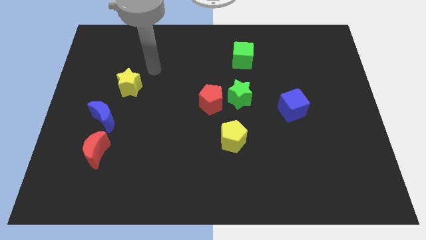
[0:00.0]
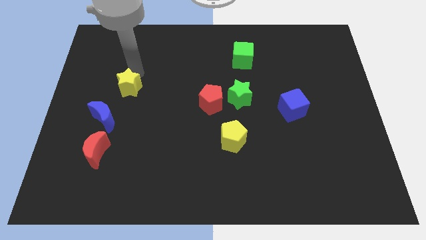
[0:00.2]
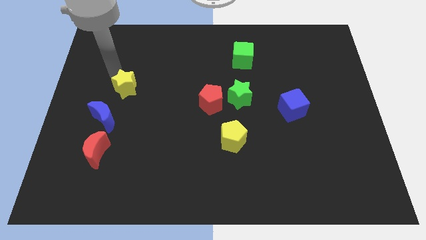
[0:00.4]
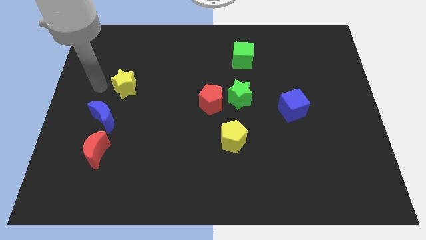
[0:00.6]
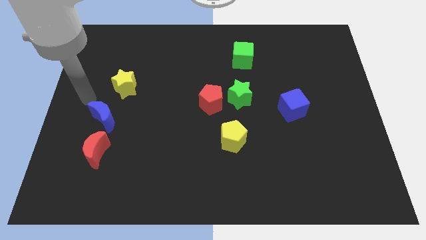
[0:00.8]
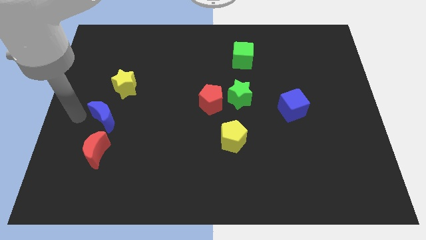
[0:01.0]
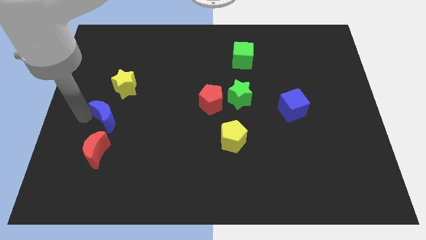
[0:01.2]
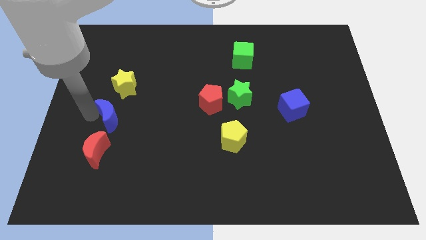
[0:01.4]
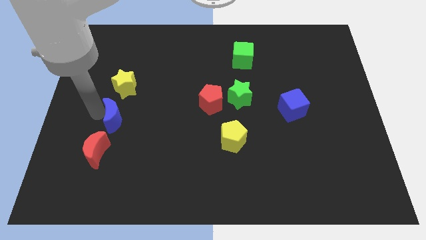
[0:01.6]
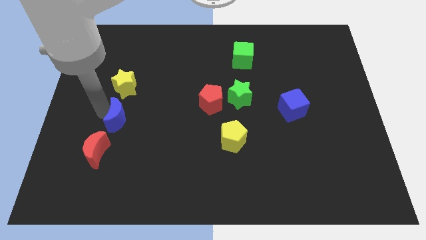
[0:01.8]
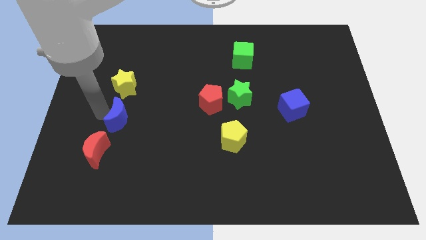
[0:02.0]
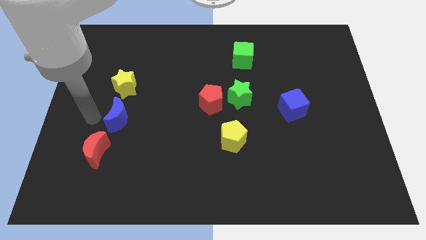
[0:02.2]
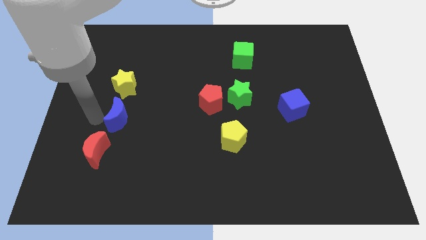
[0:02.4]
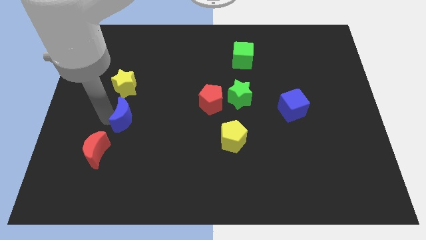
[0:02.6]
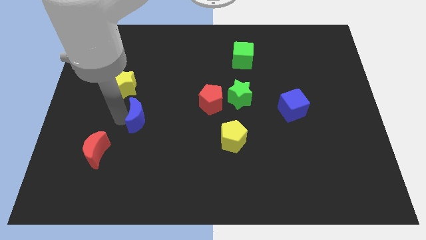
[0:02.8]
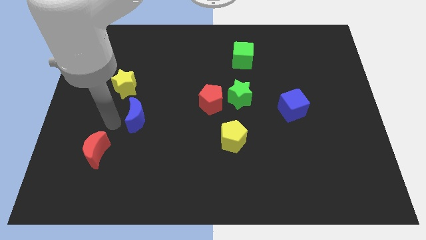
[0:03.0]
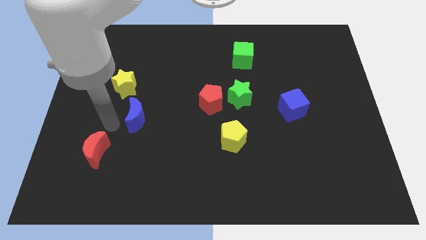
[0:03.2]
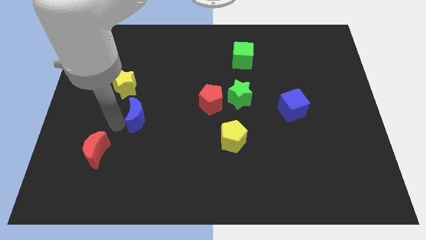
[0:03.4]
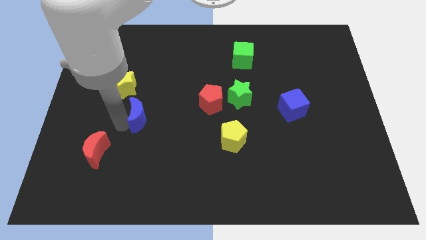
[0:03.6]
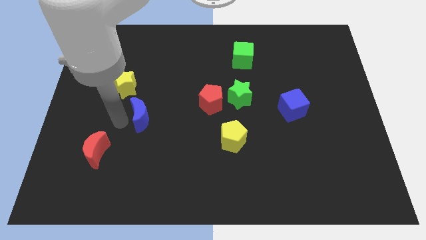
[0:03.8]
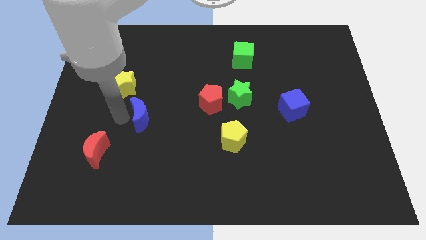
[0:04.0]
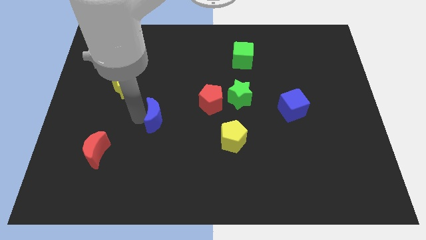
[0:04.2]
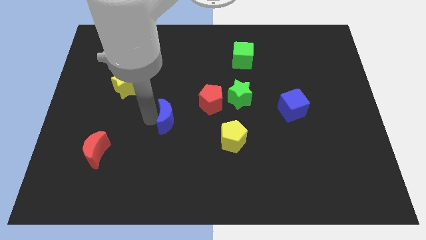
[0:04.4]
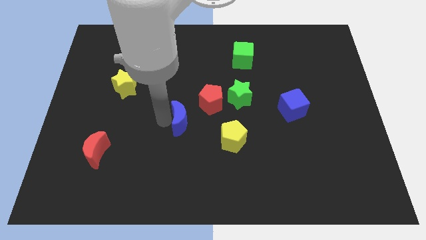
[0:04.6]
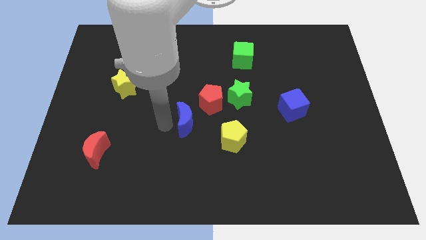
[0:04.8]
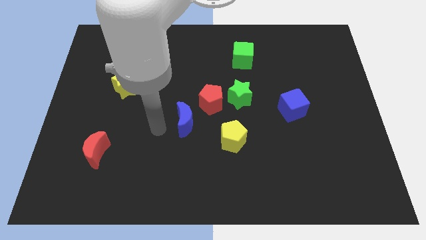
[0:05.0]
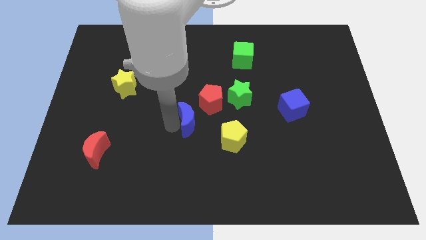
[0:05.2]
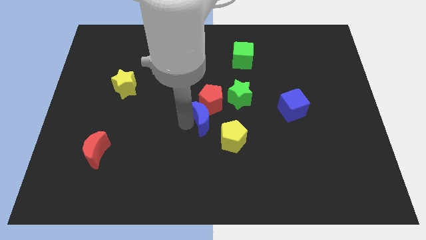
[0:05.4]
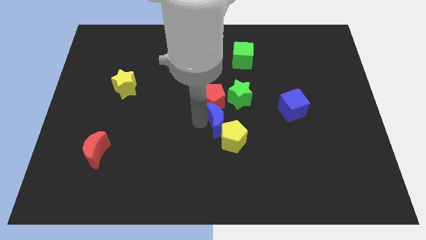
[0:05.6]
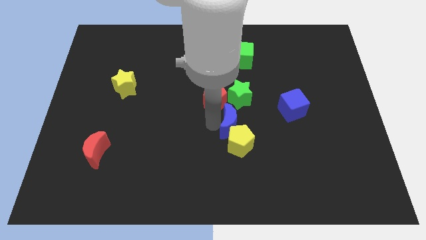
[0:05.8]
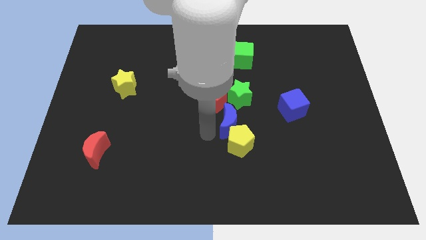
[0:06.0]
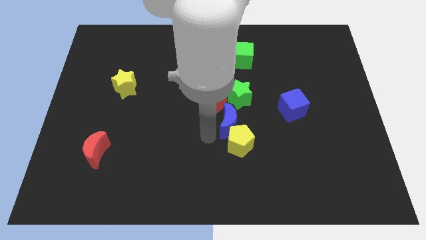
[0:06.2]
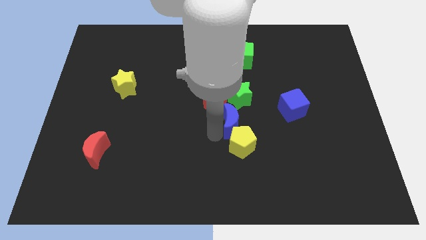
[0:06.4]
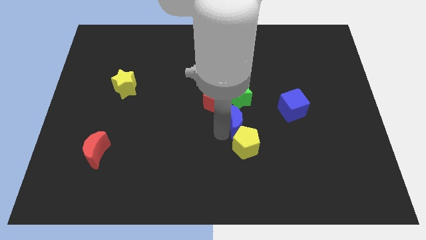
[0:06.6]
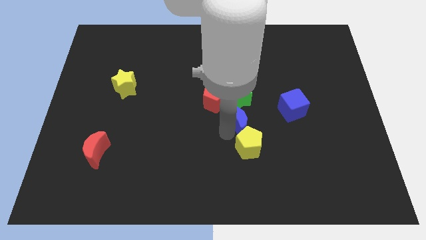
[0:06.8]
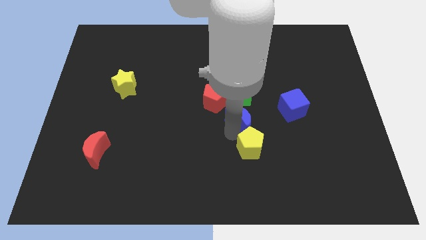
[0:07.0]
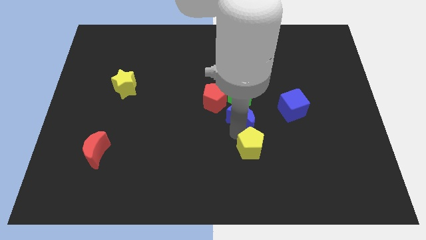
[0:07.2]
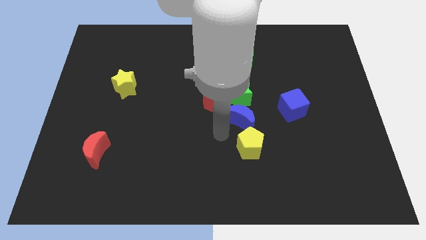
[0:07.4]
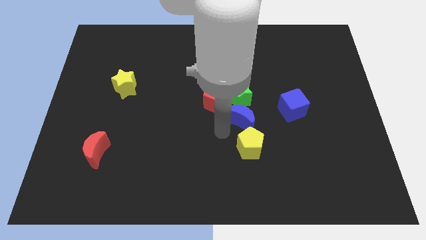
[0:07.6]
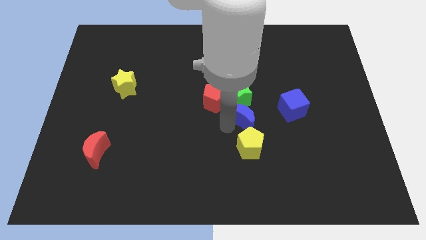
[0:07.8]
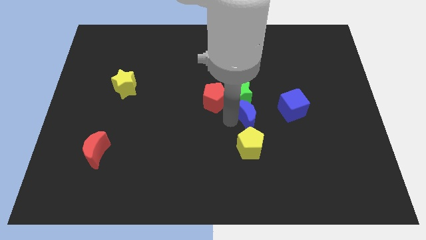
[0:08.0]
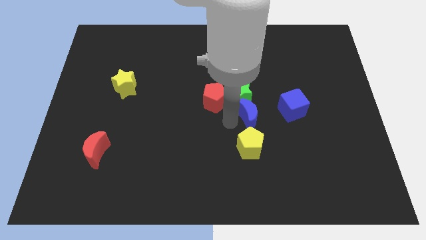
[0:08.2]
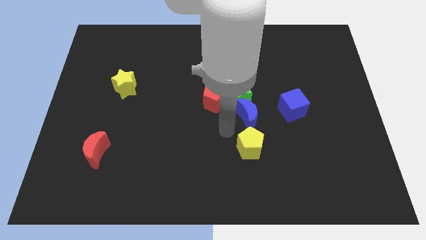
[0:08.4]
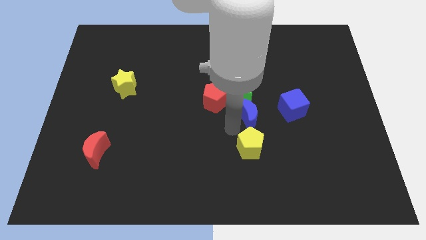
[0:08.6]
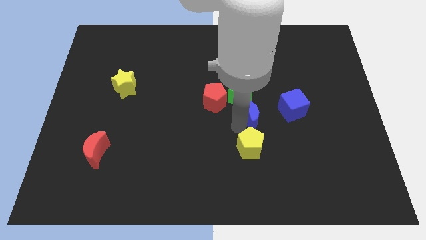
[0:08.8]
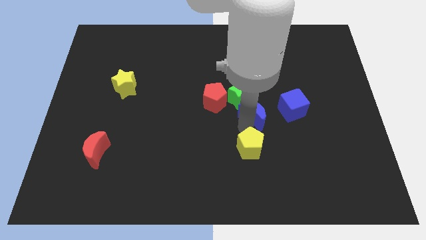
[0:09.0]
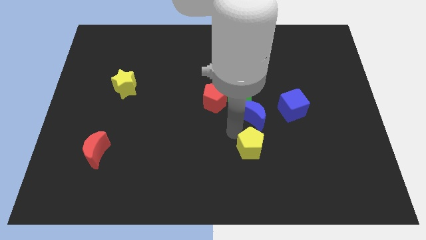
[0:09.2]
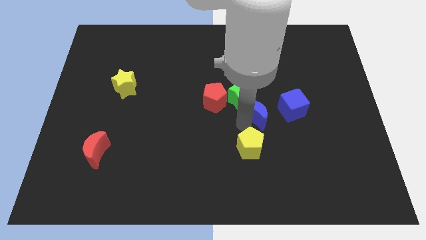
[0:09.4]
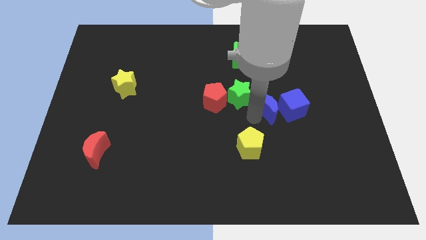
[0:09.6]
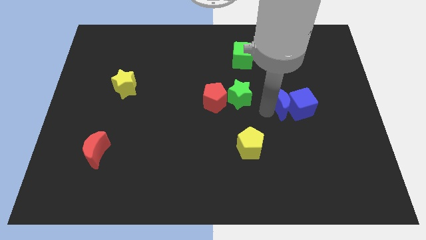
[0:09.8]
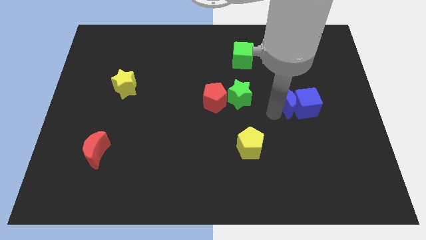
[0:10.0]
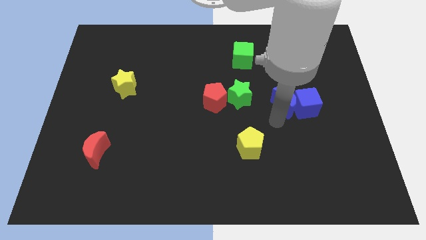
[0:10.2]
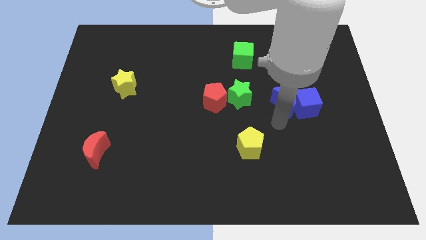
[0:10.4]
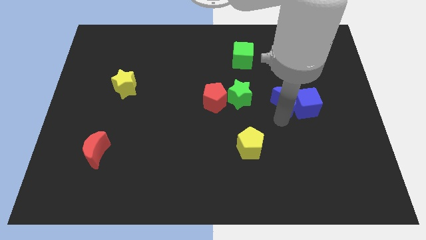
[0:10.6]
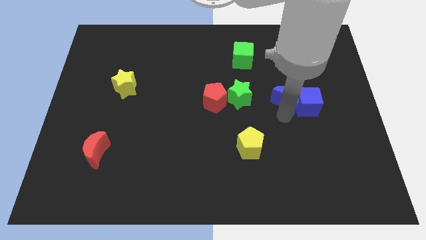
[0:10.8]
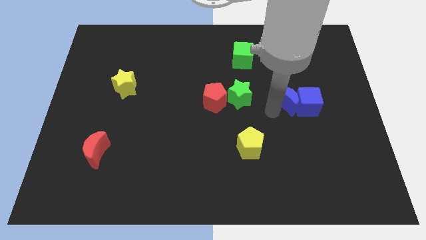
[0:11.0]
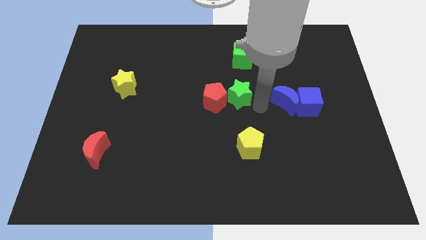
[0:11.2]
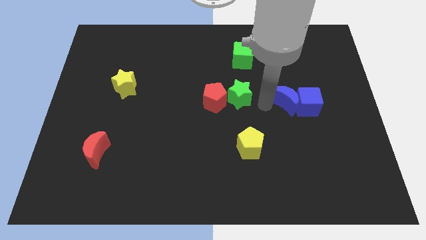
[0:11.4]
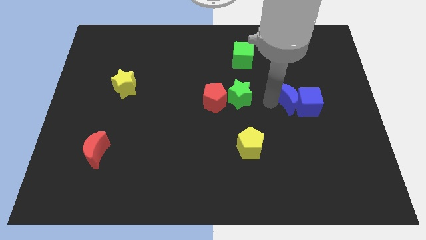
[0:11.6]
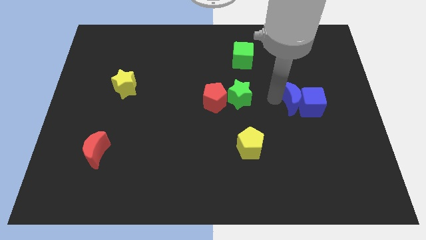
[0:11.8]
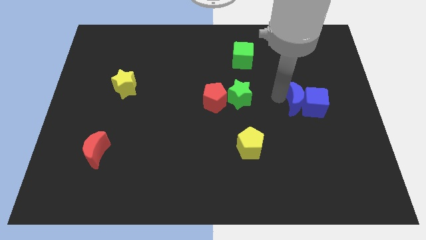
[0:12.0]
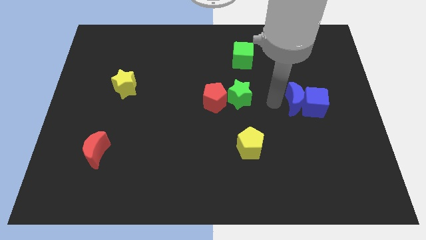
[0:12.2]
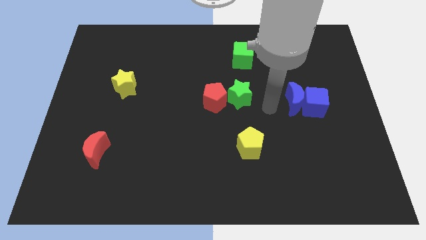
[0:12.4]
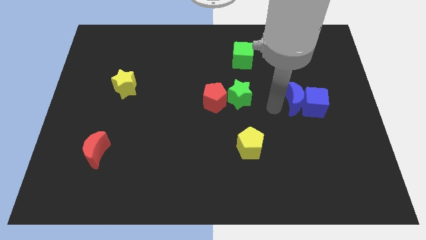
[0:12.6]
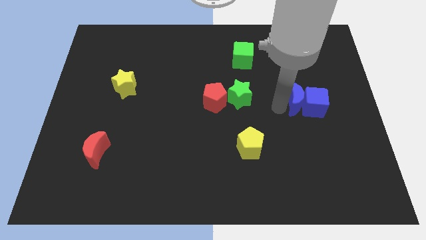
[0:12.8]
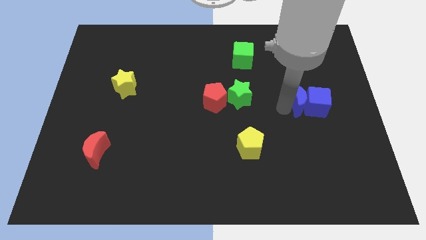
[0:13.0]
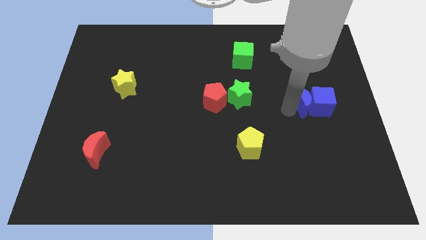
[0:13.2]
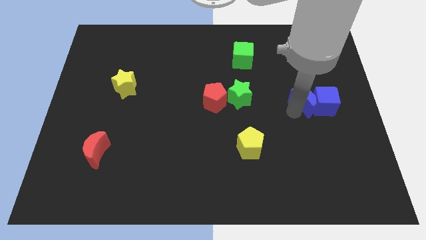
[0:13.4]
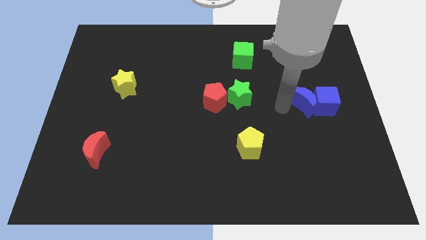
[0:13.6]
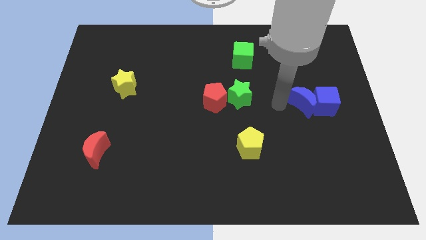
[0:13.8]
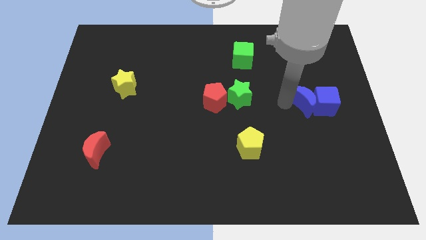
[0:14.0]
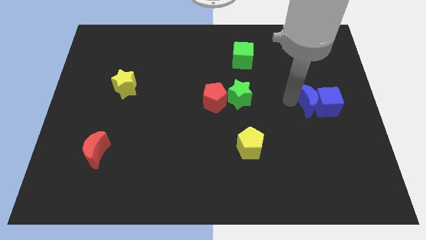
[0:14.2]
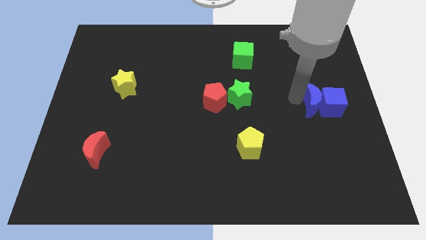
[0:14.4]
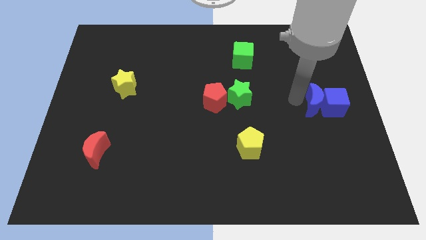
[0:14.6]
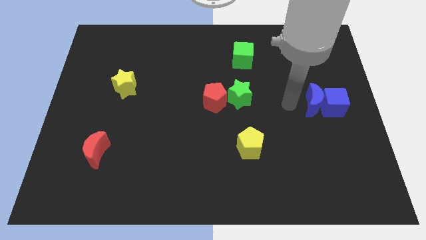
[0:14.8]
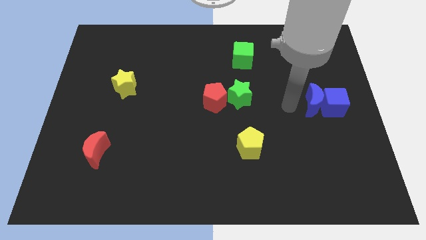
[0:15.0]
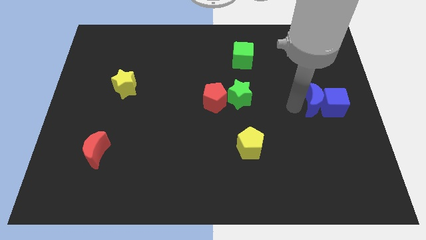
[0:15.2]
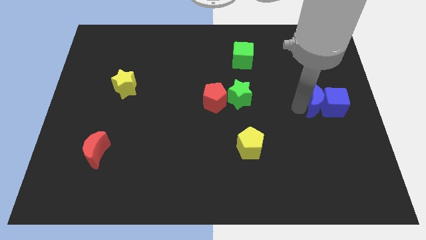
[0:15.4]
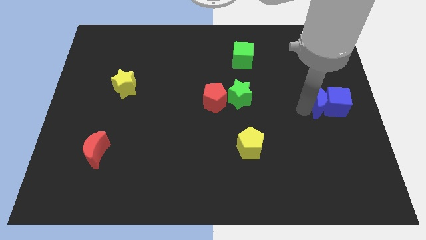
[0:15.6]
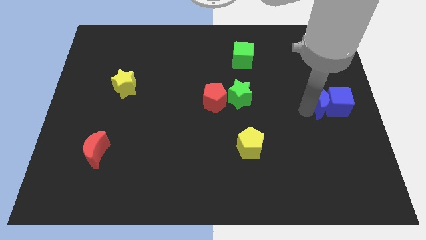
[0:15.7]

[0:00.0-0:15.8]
move the blue moon to the center right
